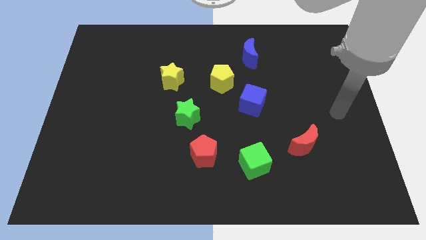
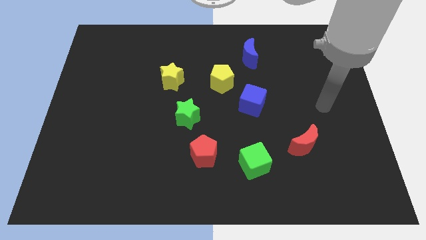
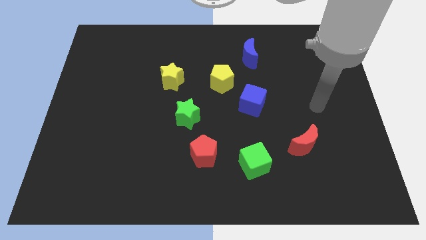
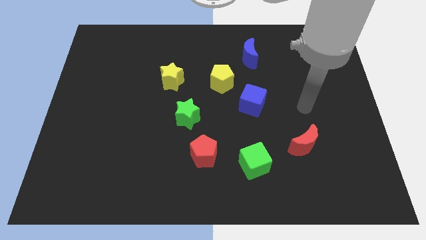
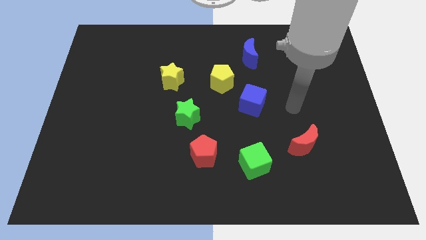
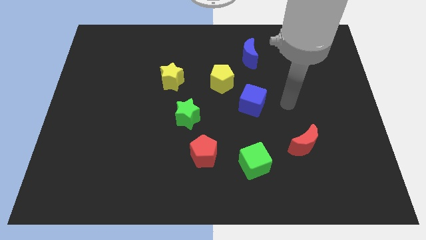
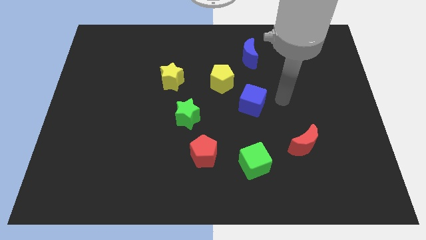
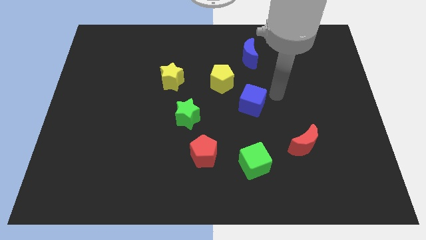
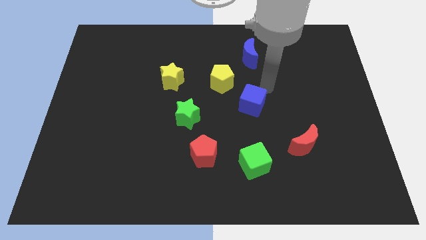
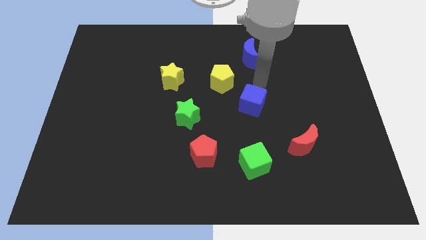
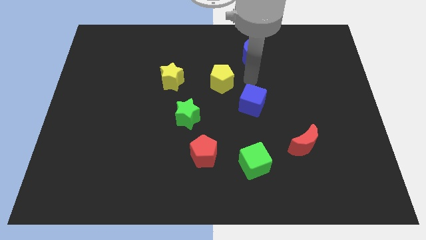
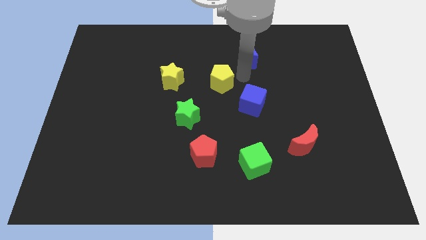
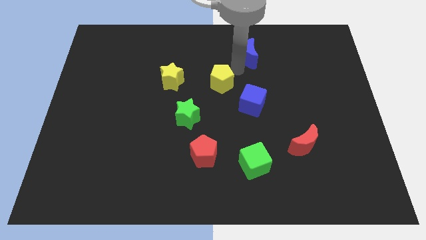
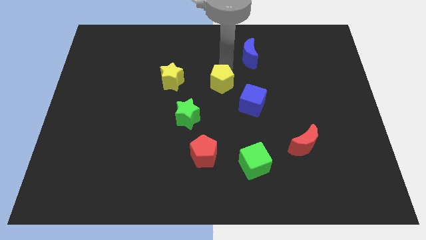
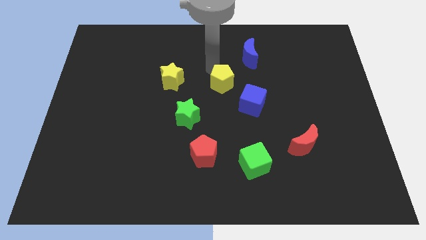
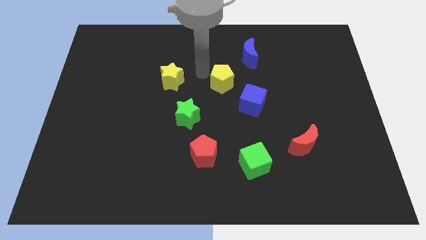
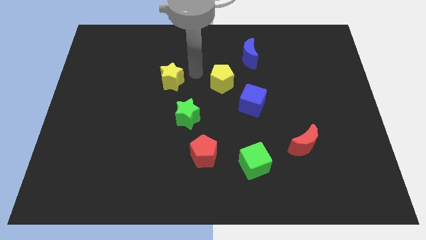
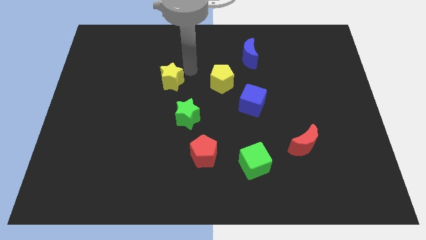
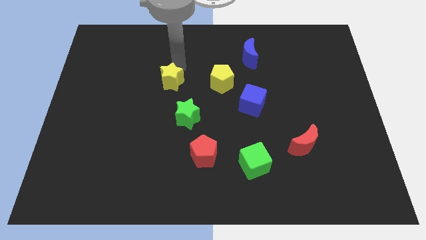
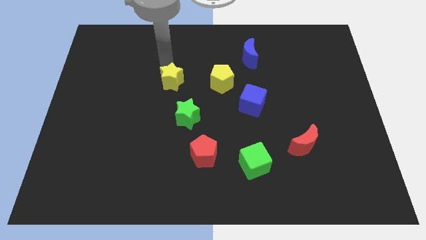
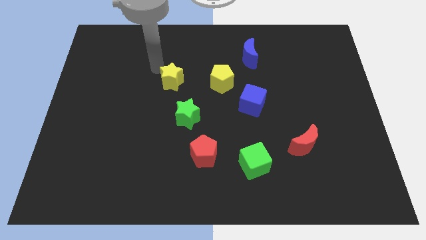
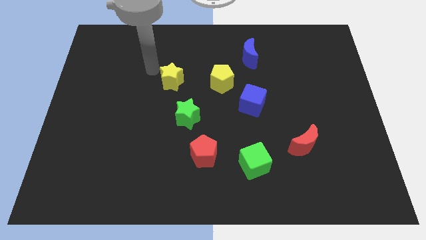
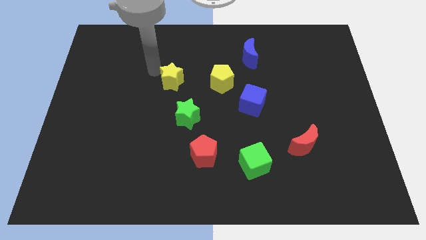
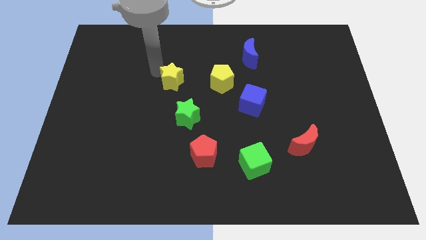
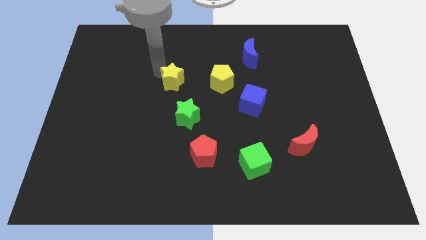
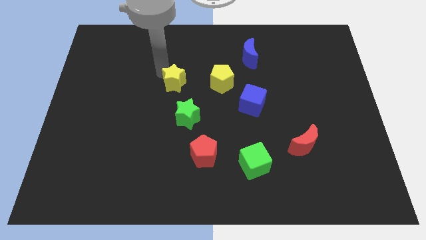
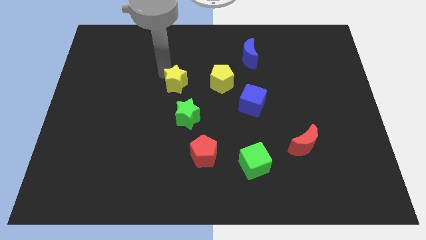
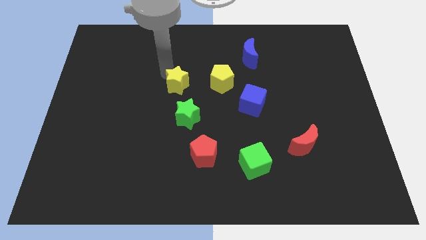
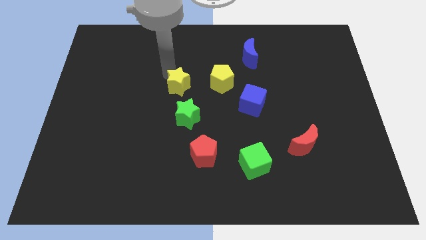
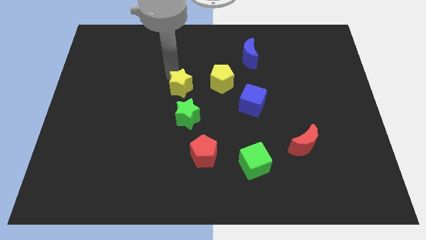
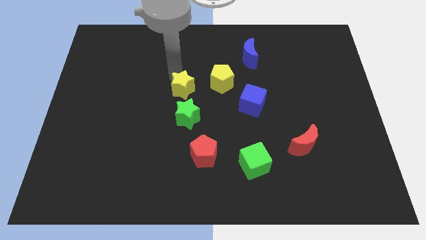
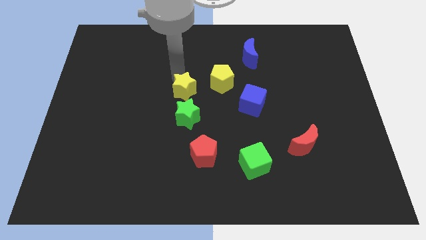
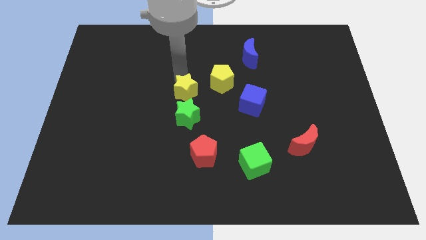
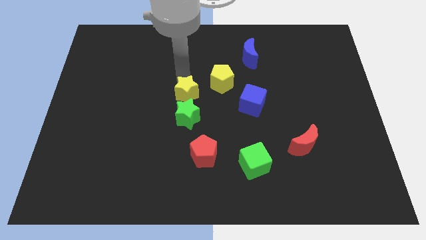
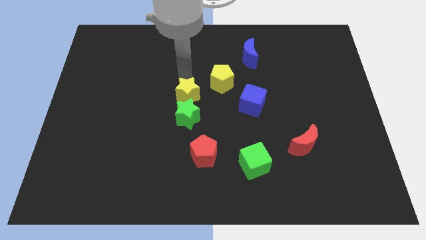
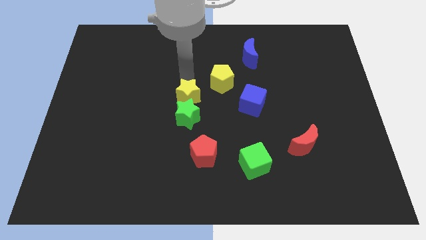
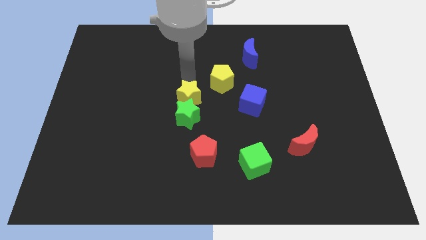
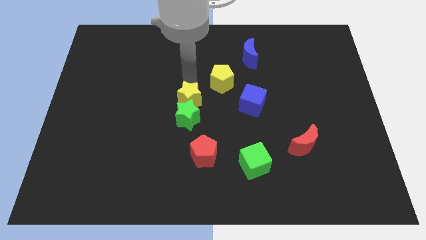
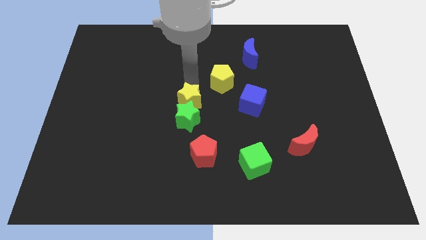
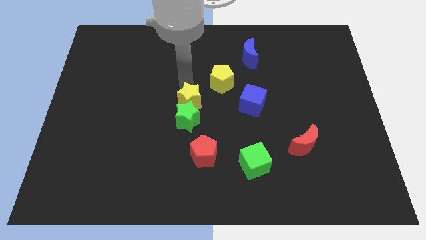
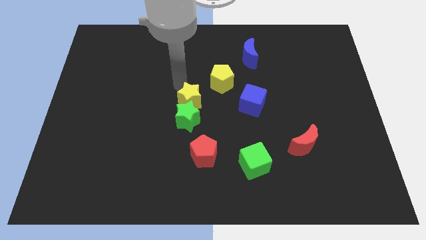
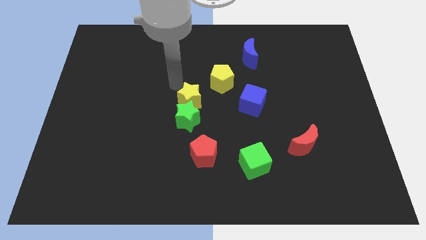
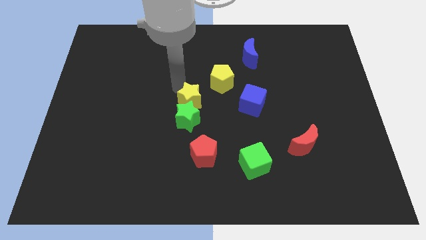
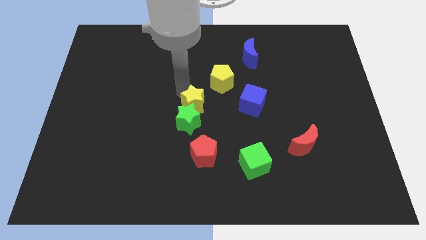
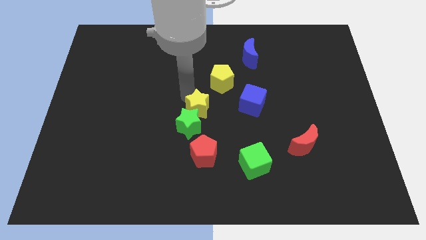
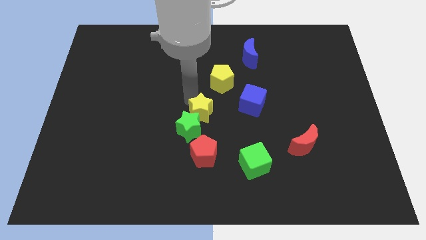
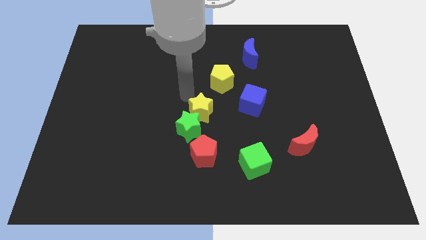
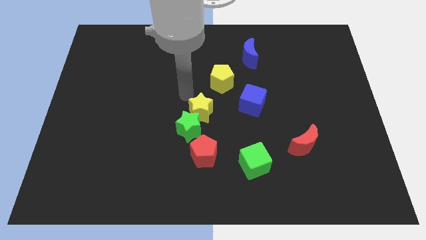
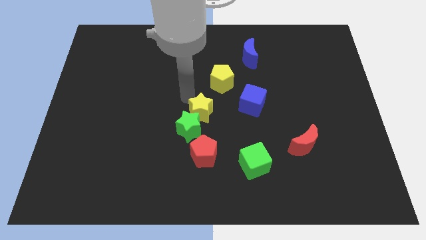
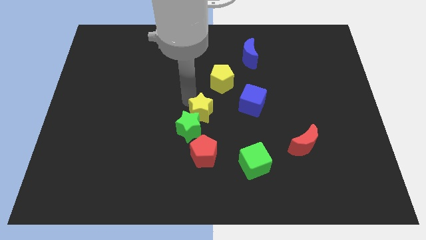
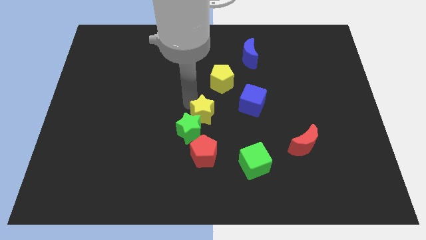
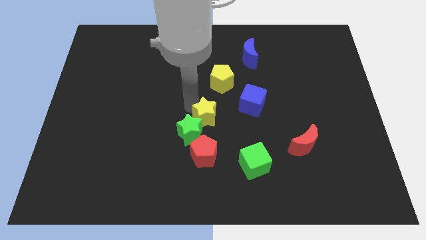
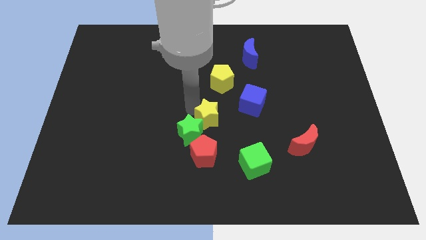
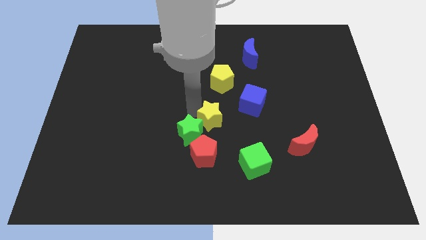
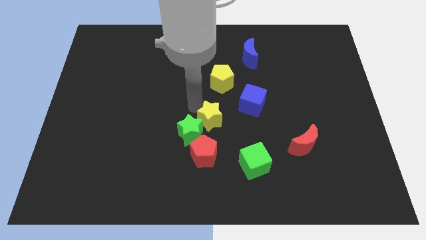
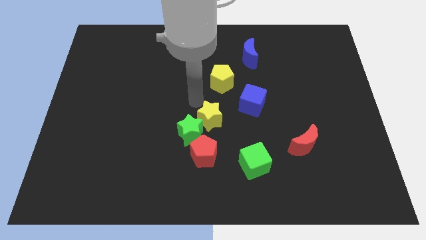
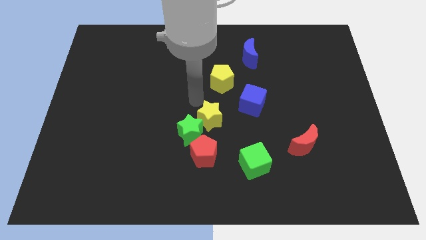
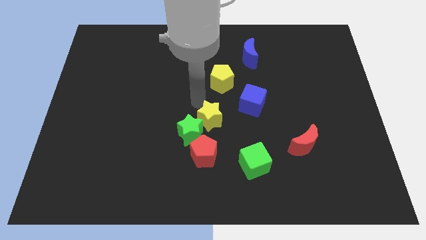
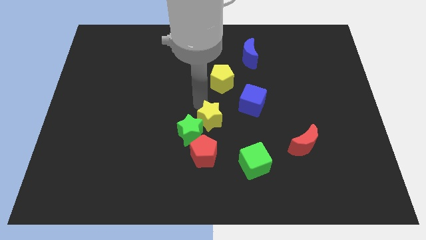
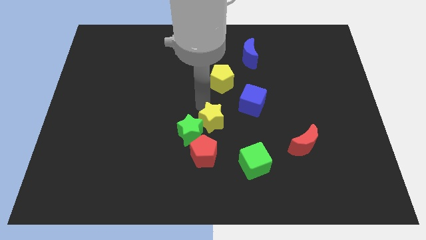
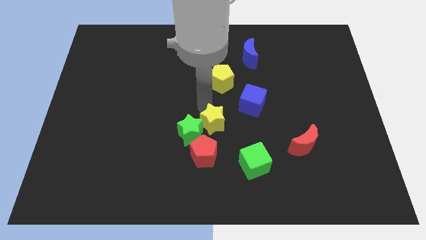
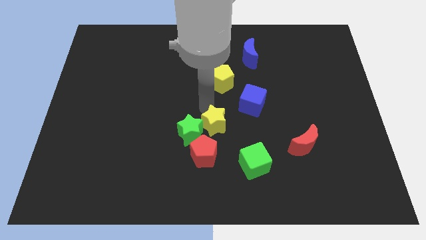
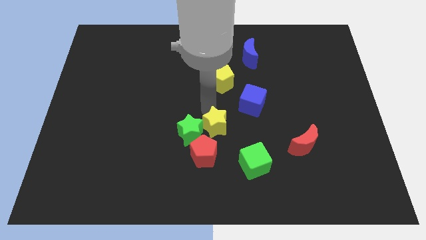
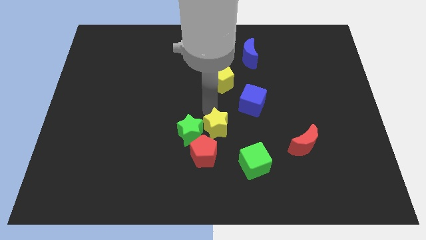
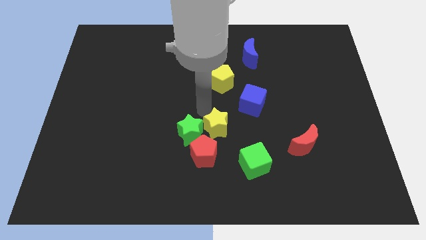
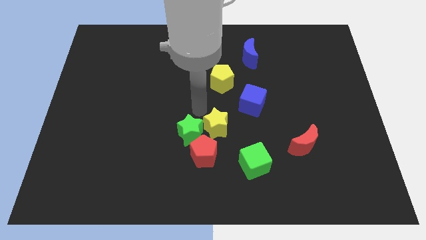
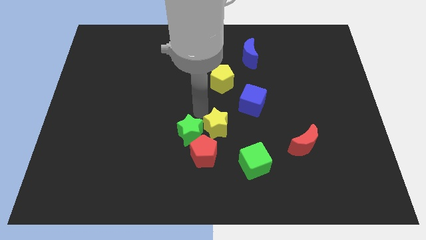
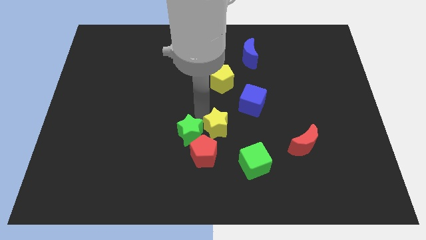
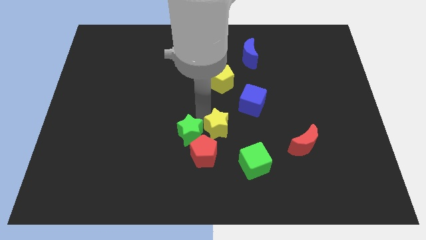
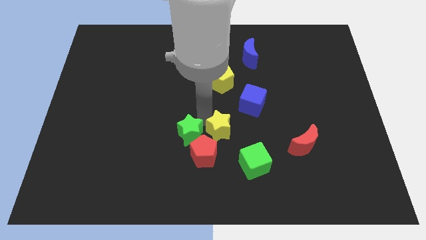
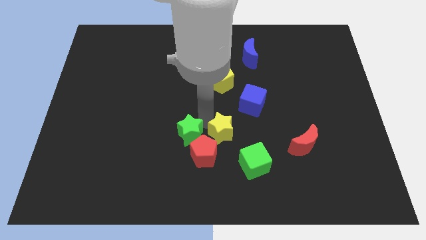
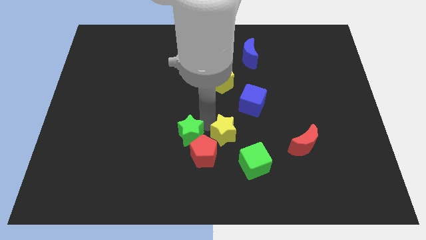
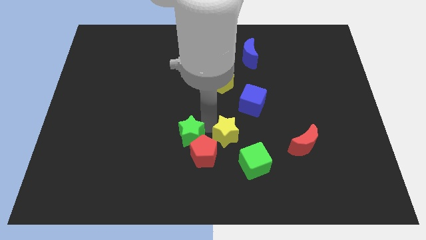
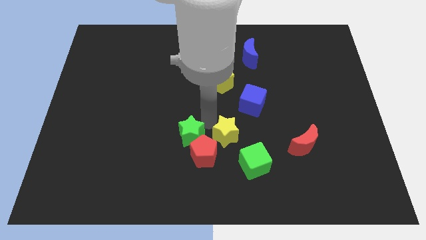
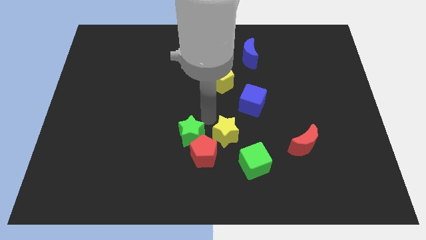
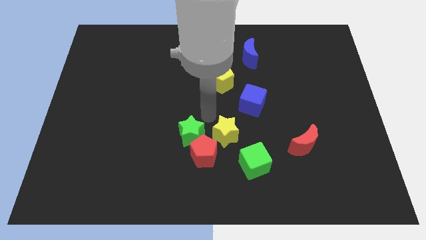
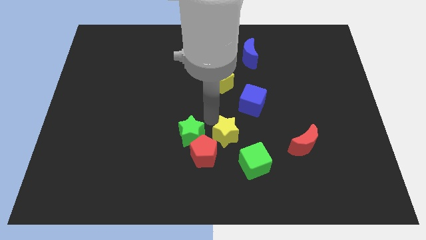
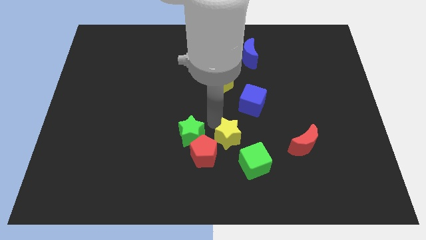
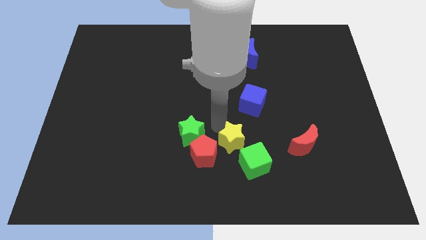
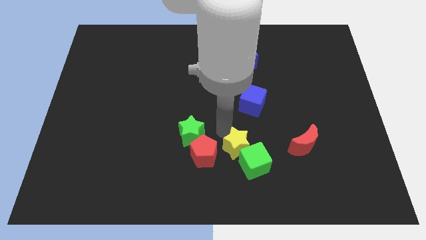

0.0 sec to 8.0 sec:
push the yellow star close to the green cube
